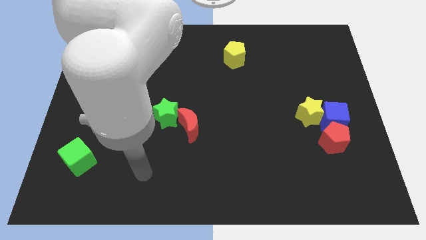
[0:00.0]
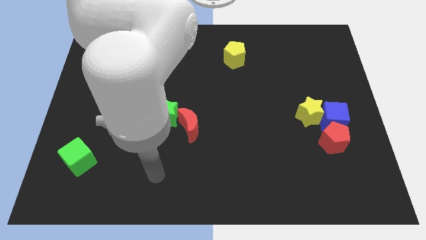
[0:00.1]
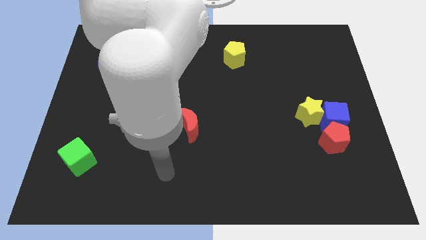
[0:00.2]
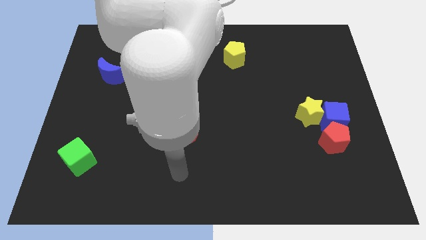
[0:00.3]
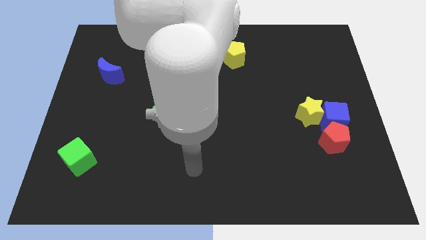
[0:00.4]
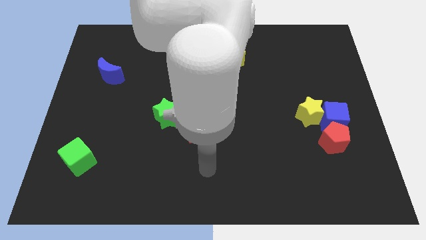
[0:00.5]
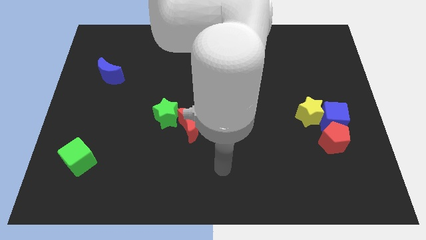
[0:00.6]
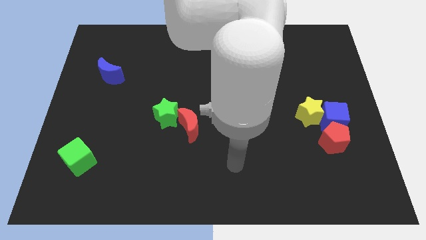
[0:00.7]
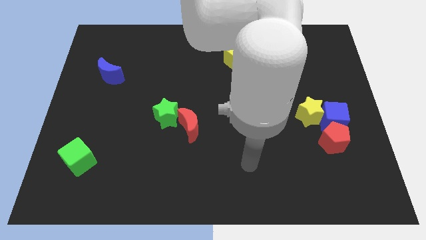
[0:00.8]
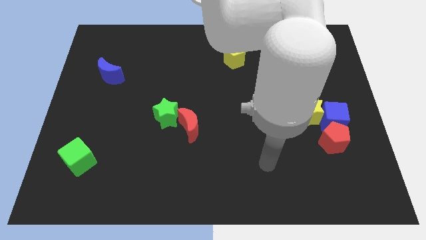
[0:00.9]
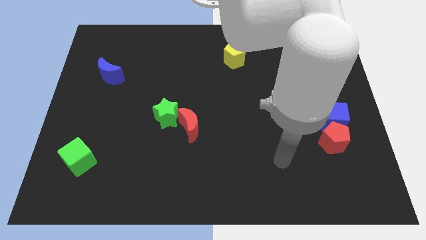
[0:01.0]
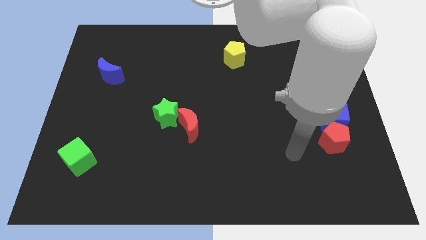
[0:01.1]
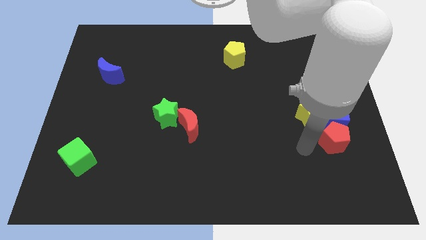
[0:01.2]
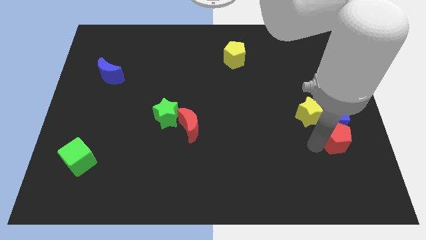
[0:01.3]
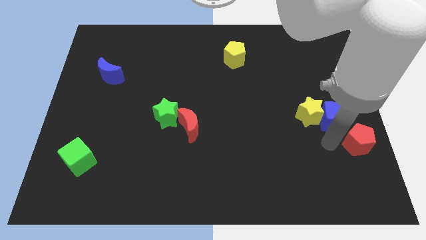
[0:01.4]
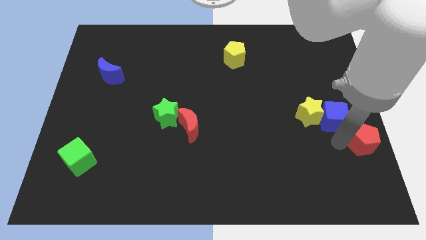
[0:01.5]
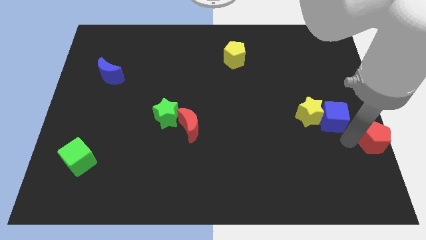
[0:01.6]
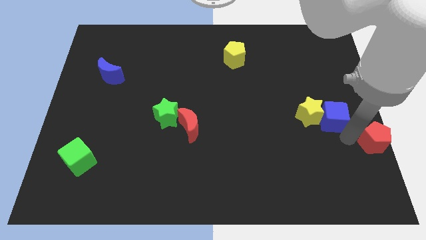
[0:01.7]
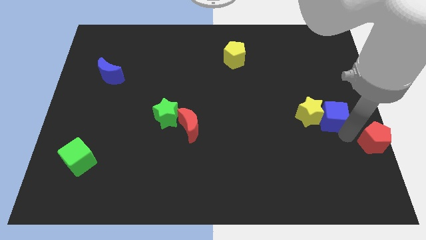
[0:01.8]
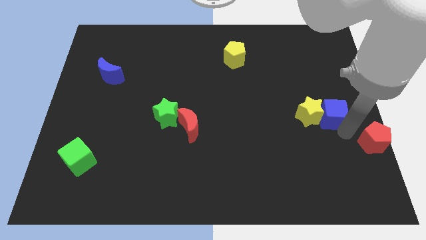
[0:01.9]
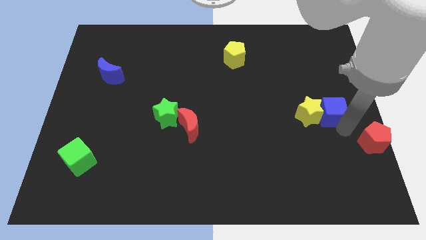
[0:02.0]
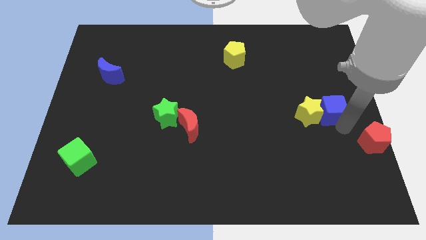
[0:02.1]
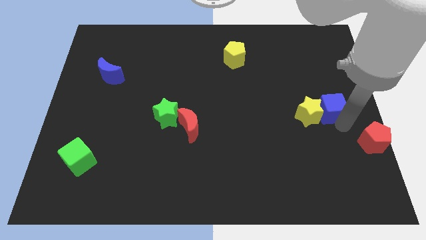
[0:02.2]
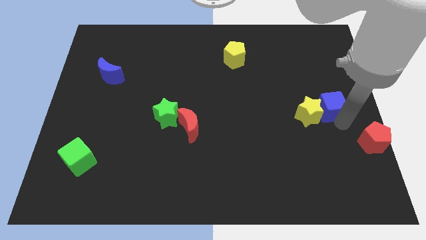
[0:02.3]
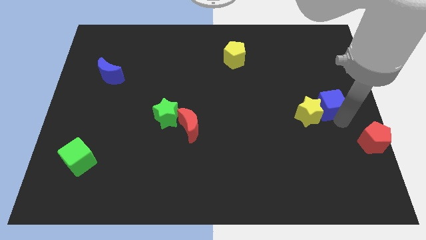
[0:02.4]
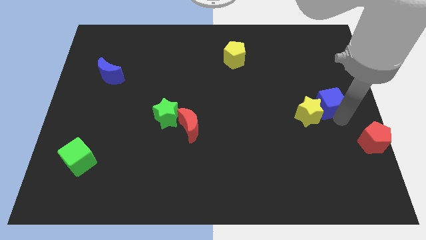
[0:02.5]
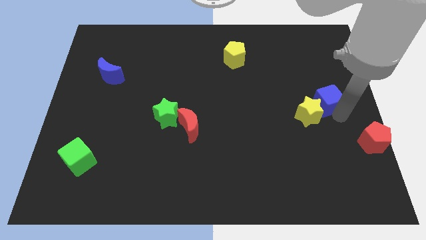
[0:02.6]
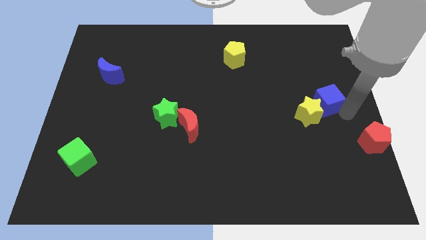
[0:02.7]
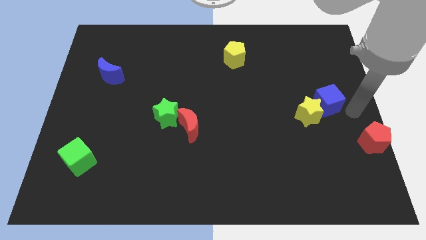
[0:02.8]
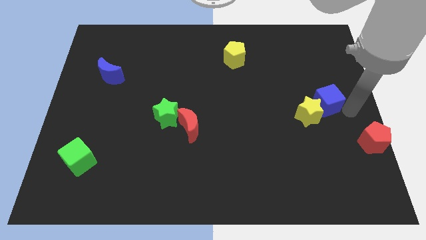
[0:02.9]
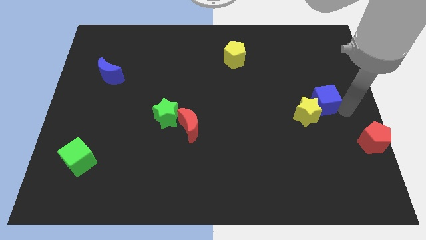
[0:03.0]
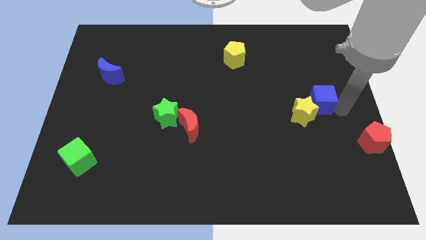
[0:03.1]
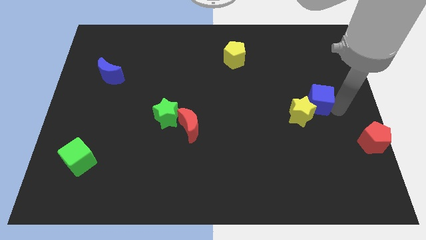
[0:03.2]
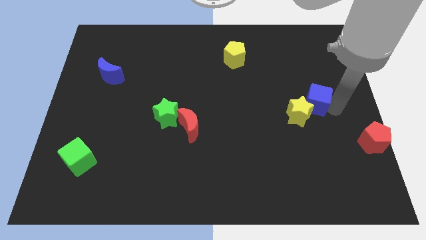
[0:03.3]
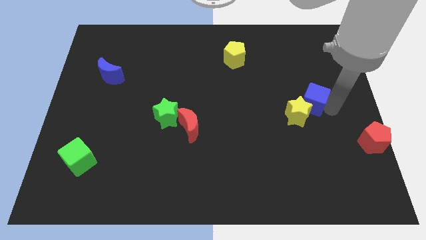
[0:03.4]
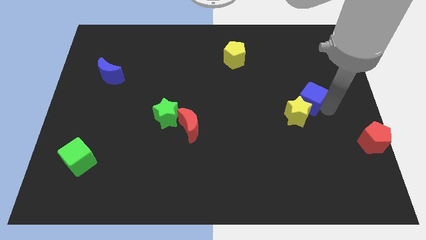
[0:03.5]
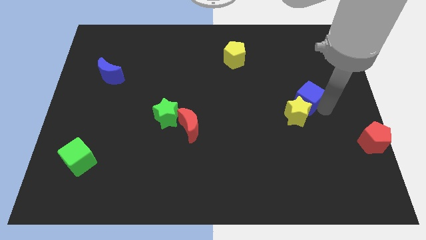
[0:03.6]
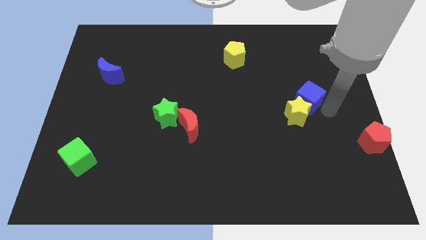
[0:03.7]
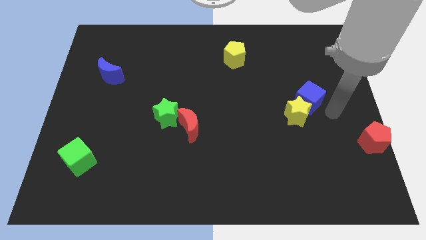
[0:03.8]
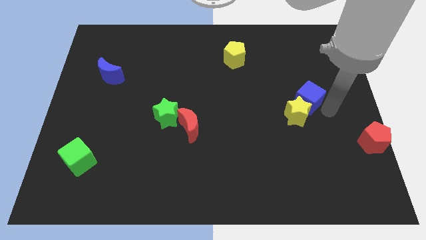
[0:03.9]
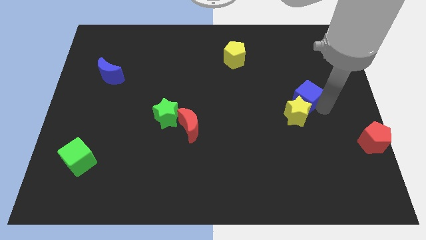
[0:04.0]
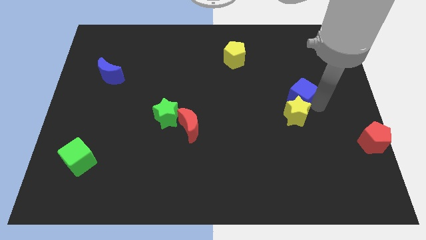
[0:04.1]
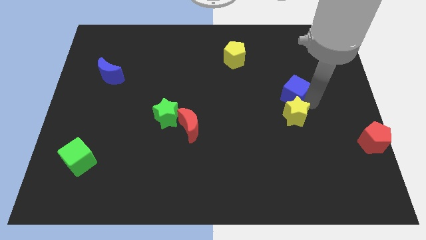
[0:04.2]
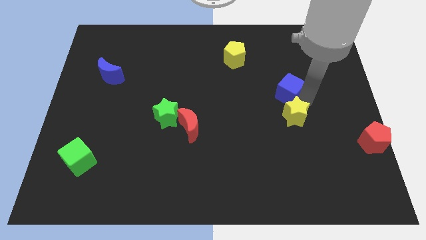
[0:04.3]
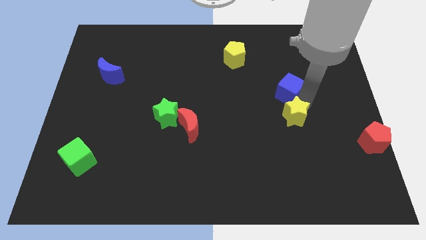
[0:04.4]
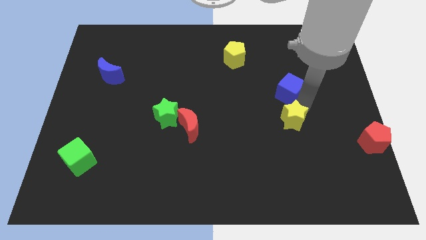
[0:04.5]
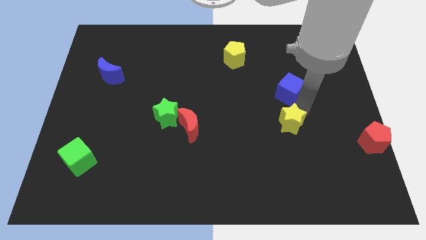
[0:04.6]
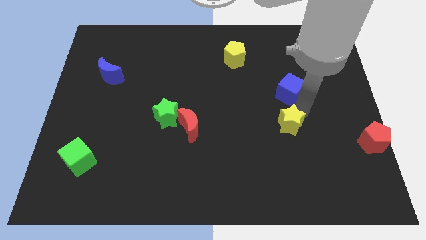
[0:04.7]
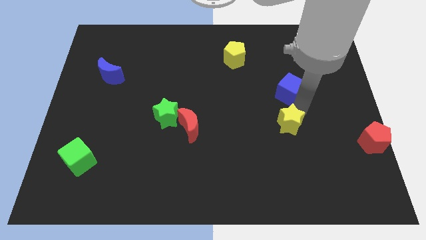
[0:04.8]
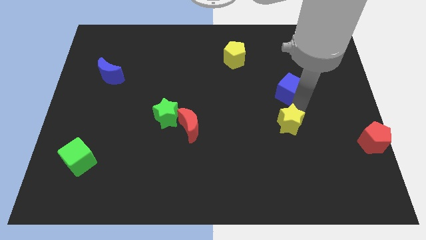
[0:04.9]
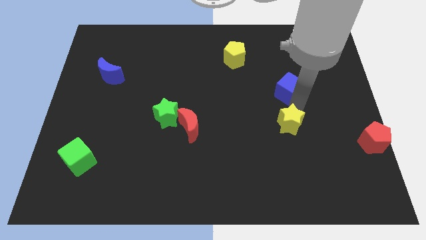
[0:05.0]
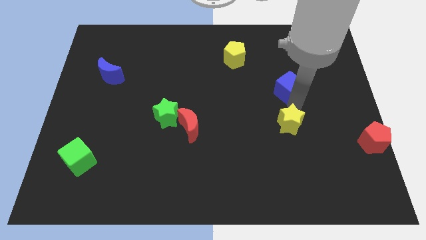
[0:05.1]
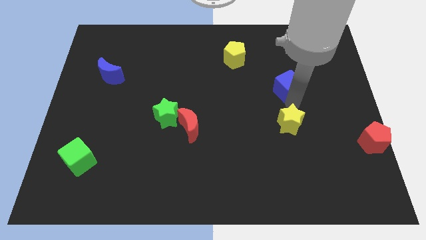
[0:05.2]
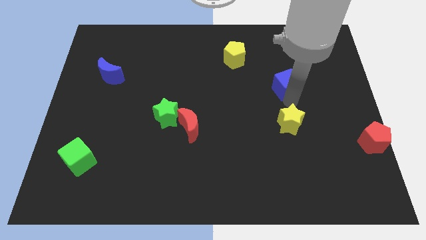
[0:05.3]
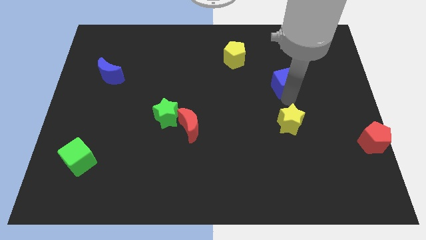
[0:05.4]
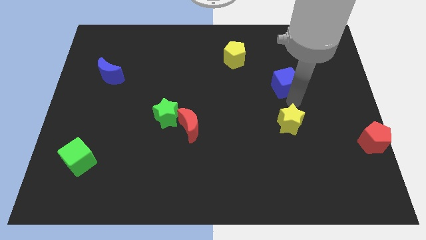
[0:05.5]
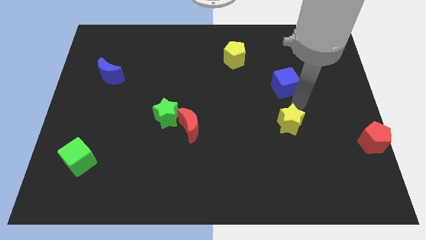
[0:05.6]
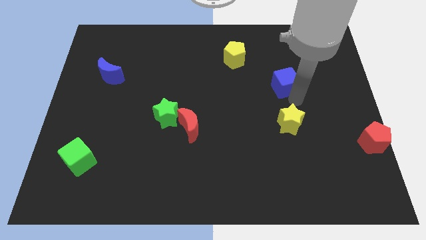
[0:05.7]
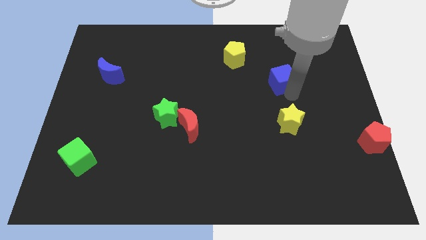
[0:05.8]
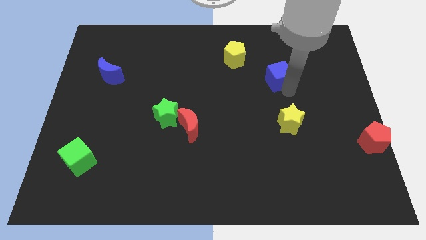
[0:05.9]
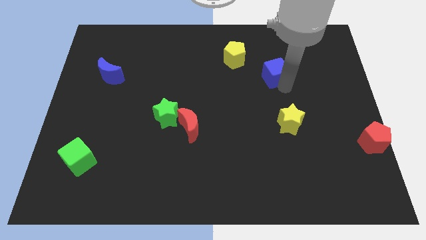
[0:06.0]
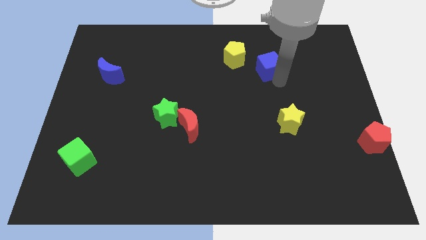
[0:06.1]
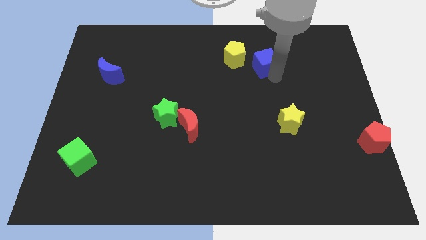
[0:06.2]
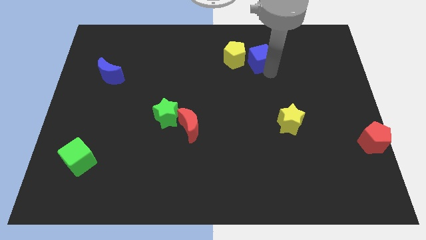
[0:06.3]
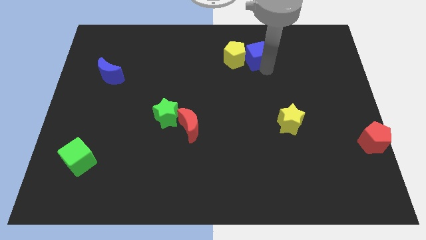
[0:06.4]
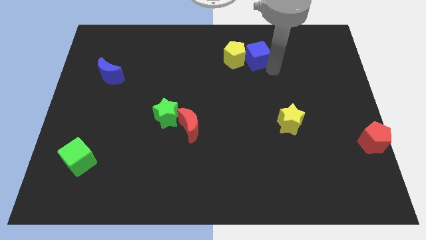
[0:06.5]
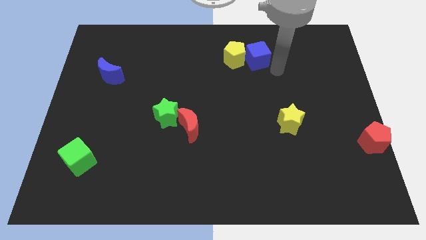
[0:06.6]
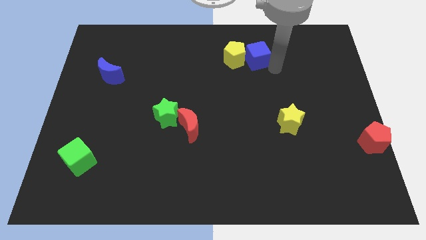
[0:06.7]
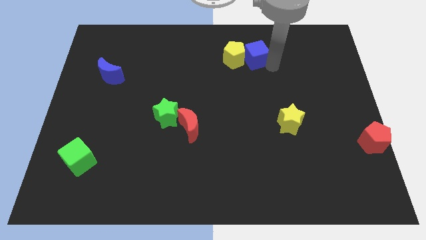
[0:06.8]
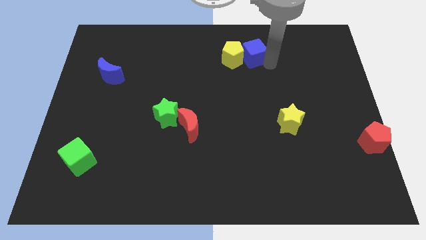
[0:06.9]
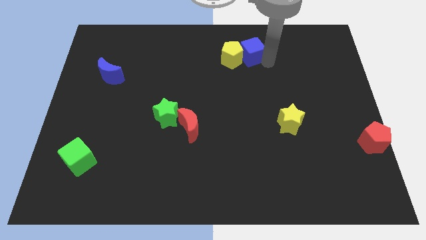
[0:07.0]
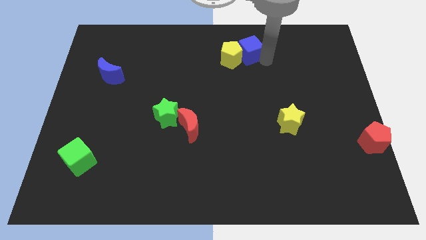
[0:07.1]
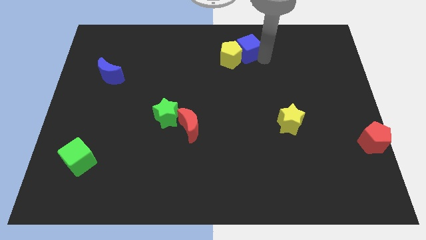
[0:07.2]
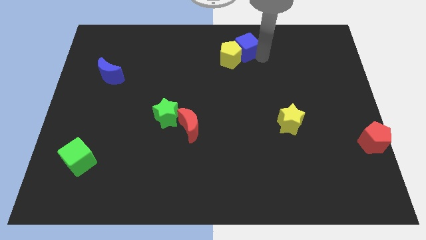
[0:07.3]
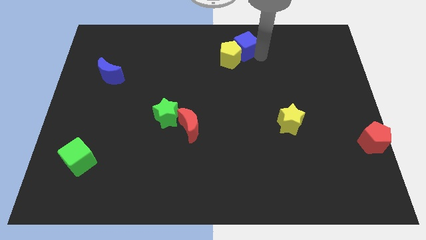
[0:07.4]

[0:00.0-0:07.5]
move the blue cube to the top side

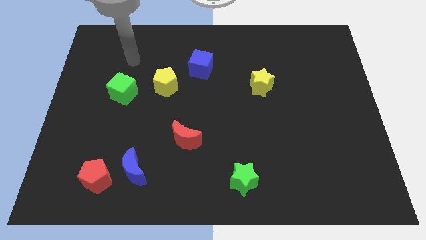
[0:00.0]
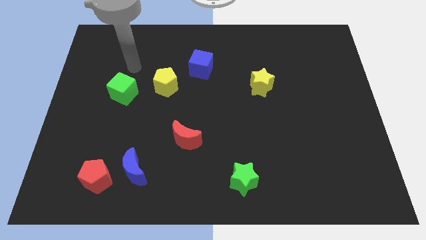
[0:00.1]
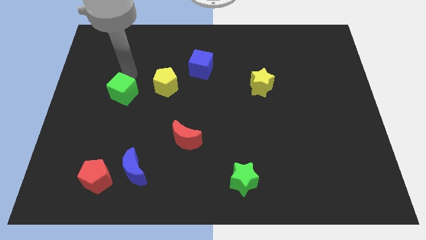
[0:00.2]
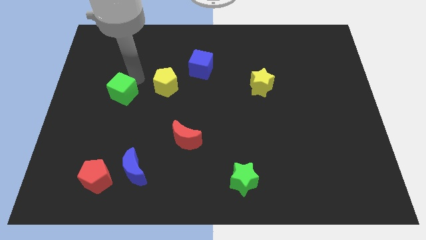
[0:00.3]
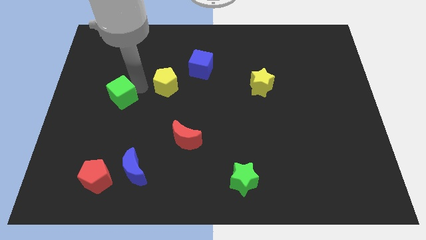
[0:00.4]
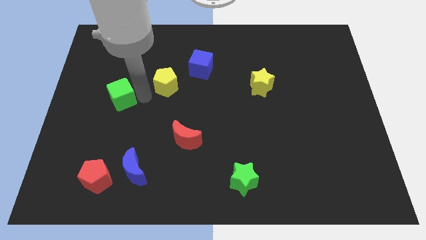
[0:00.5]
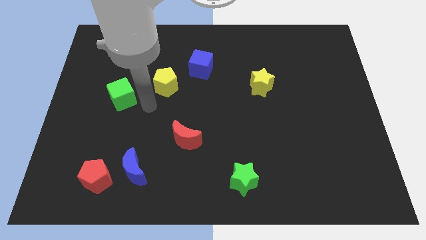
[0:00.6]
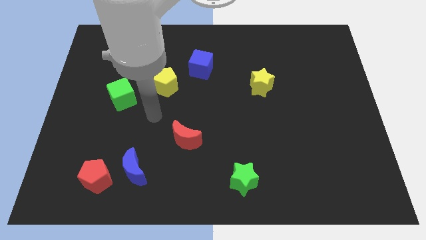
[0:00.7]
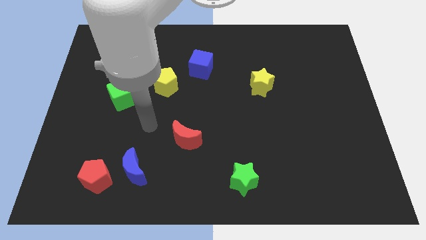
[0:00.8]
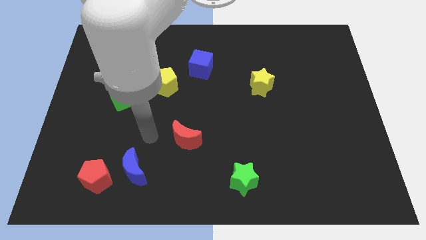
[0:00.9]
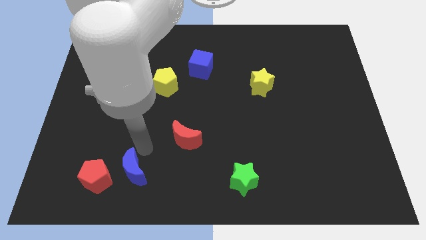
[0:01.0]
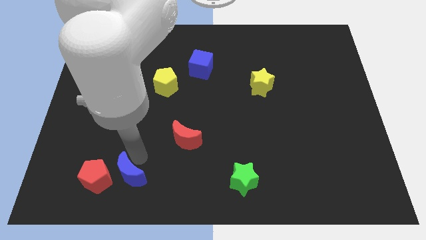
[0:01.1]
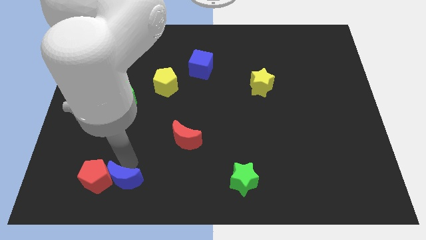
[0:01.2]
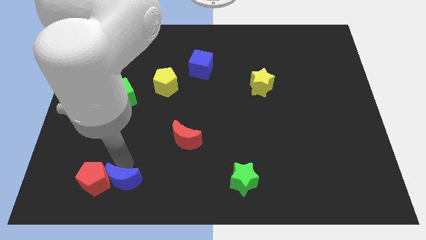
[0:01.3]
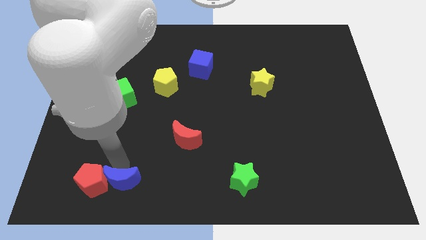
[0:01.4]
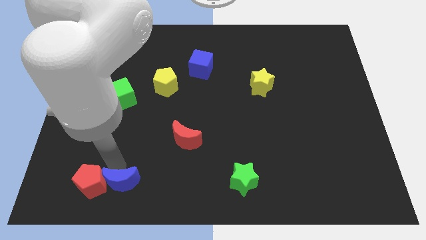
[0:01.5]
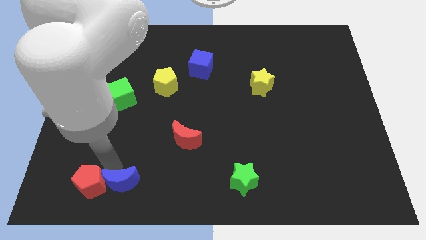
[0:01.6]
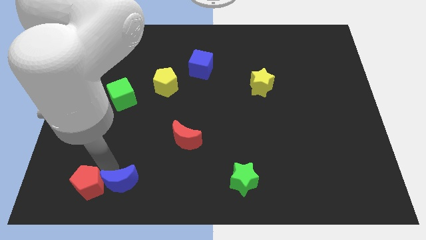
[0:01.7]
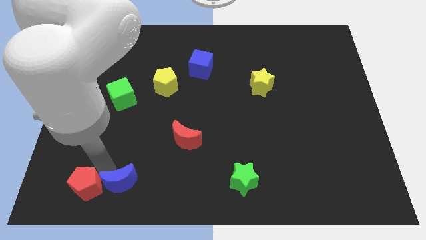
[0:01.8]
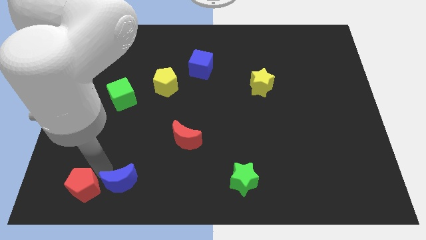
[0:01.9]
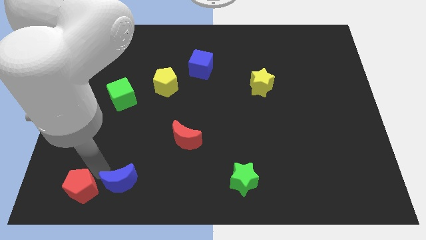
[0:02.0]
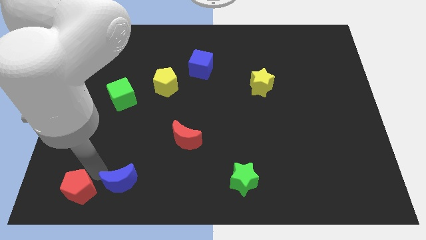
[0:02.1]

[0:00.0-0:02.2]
move the red pentagon to the bottom left
